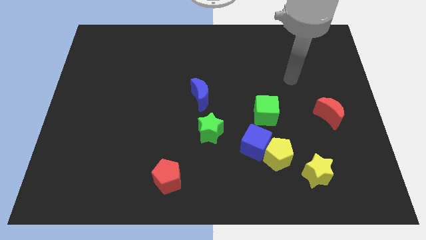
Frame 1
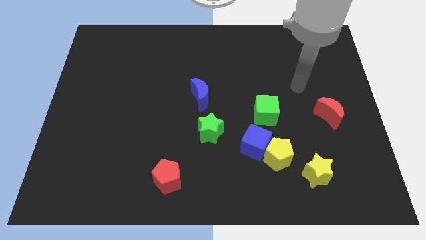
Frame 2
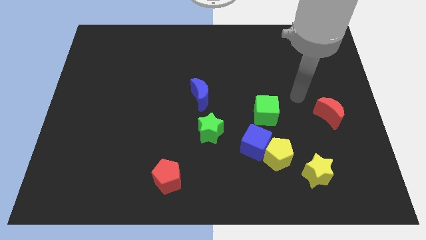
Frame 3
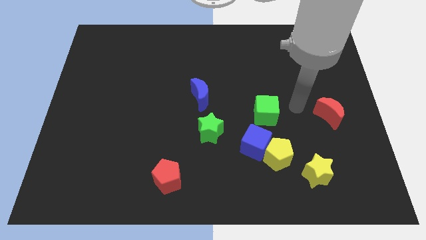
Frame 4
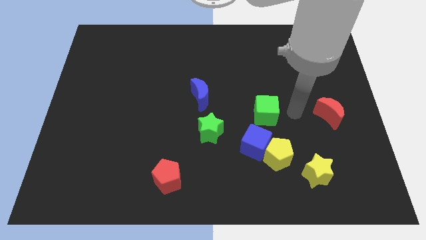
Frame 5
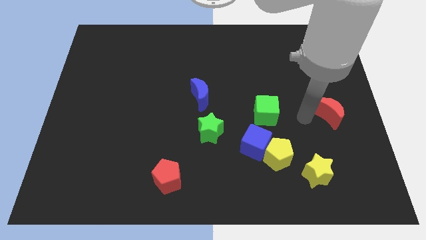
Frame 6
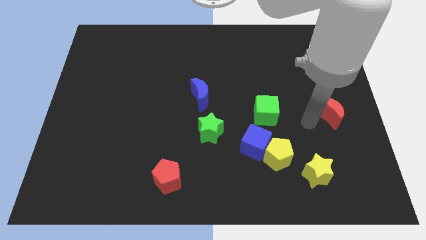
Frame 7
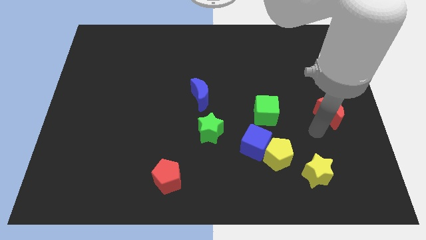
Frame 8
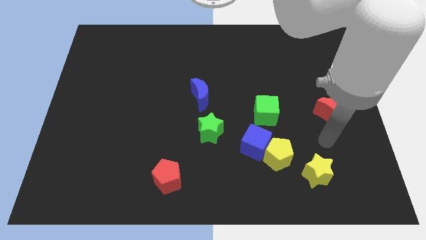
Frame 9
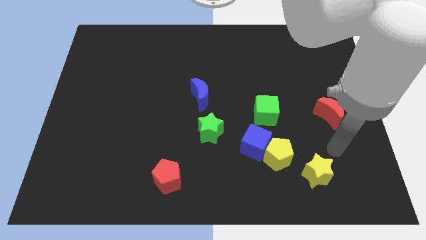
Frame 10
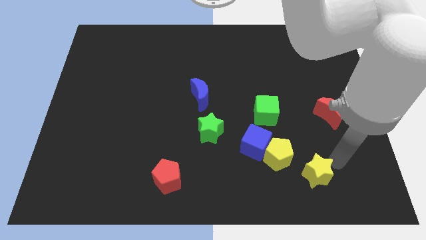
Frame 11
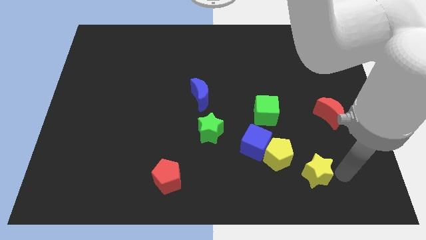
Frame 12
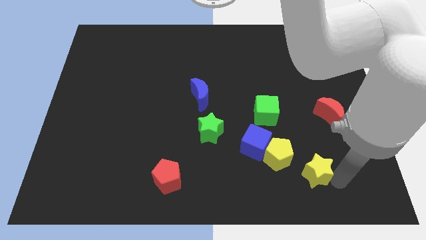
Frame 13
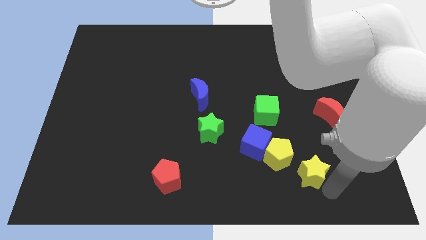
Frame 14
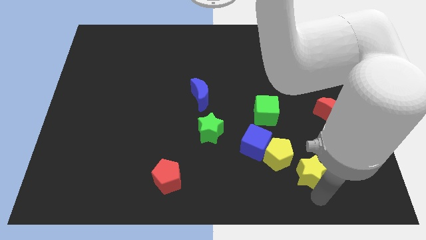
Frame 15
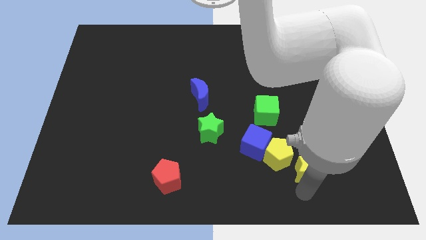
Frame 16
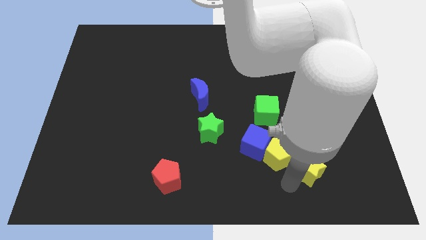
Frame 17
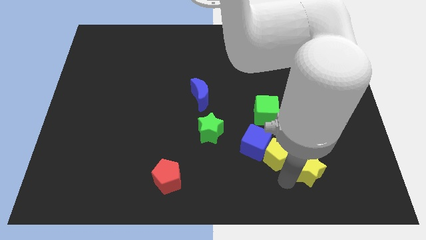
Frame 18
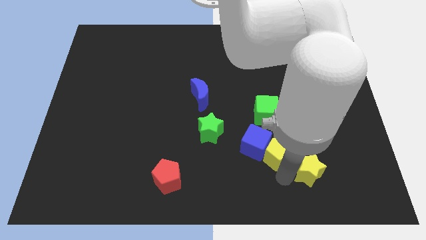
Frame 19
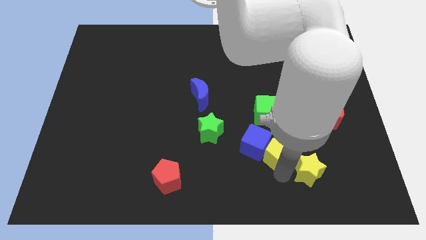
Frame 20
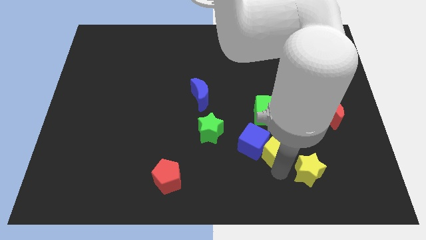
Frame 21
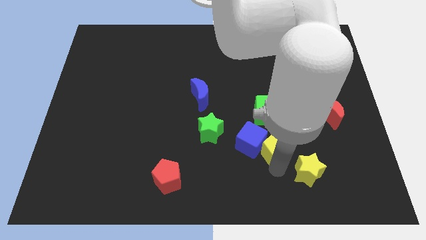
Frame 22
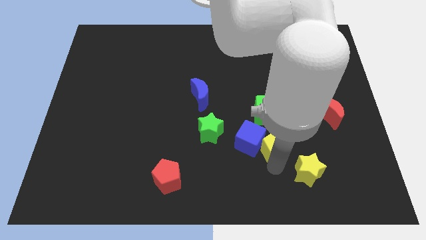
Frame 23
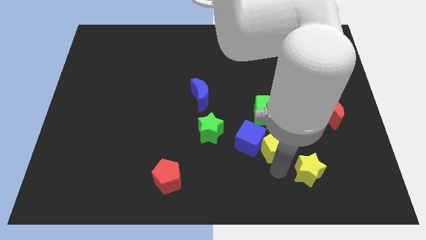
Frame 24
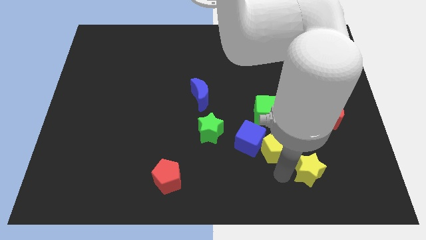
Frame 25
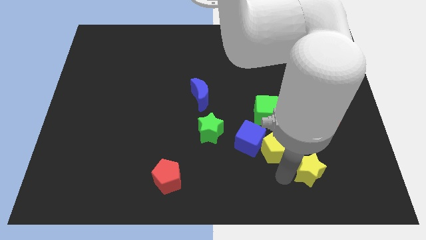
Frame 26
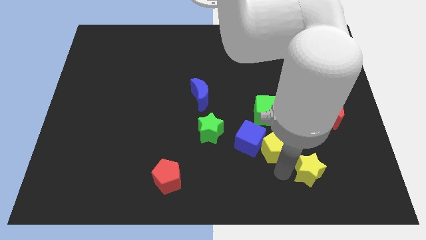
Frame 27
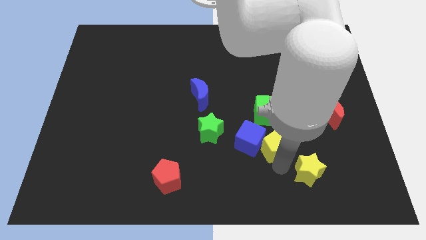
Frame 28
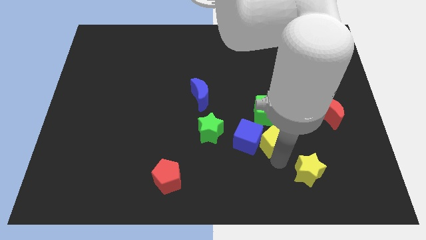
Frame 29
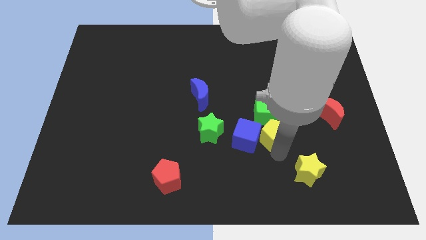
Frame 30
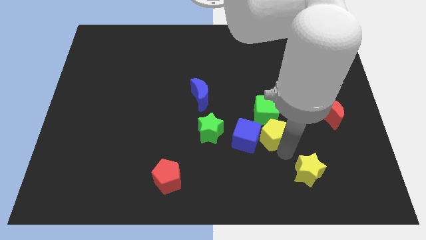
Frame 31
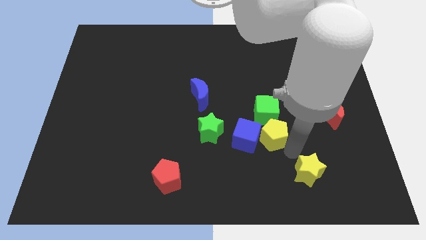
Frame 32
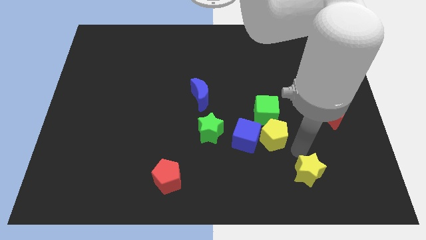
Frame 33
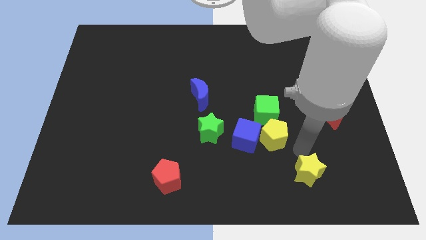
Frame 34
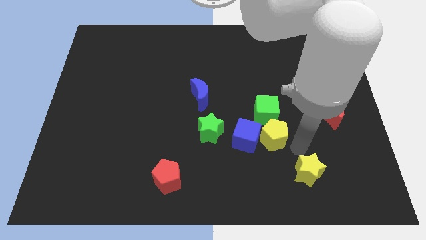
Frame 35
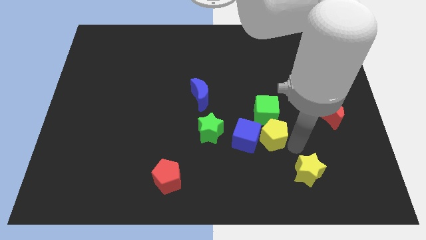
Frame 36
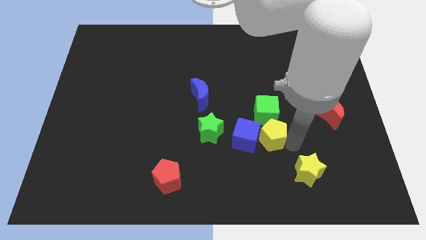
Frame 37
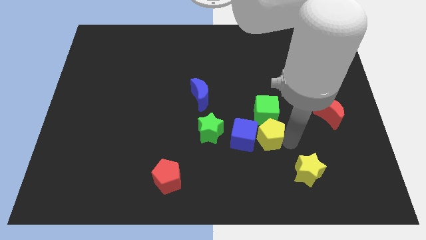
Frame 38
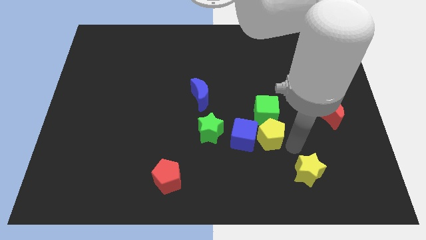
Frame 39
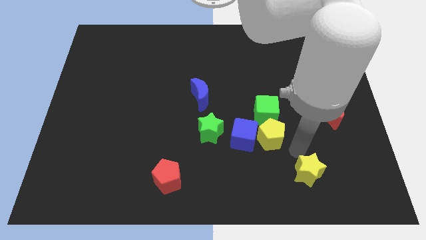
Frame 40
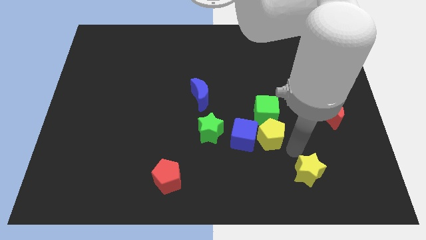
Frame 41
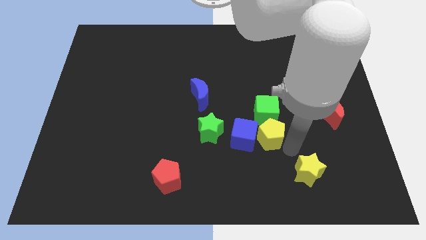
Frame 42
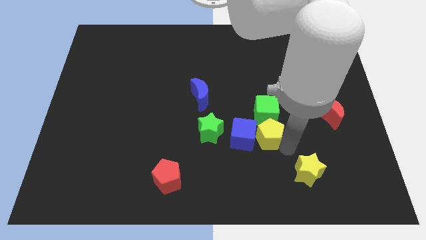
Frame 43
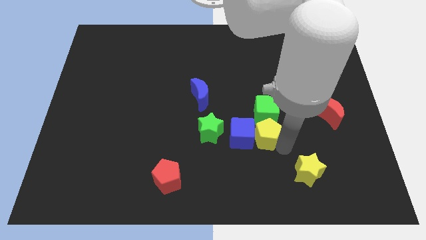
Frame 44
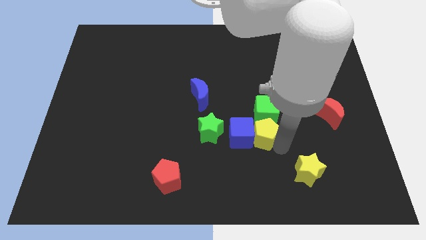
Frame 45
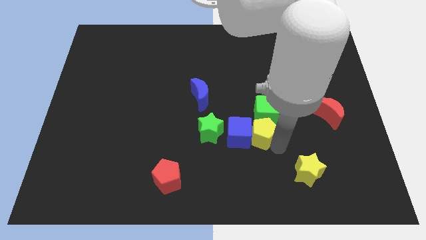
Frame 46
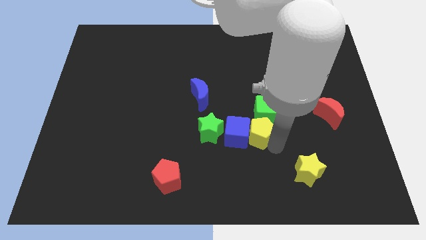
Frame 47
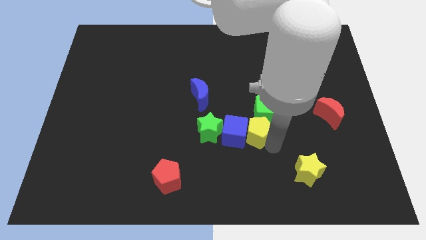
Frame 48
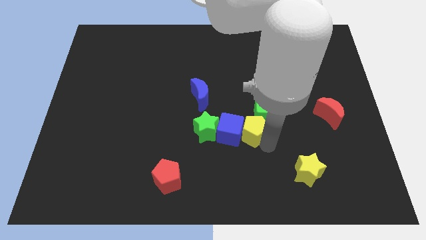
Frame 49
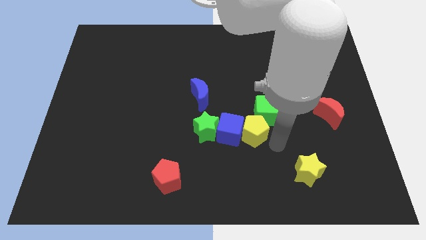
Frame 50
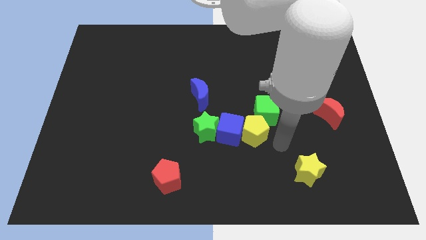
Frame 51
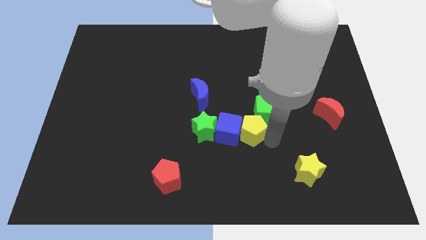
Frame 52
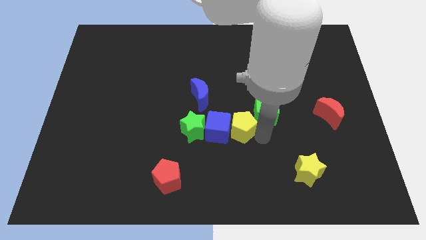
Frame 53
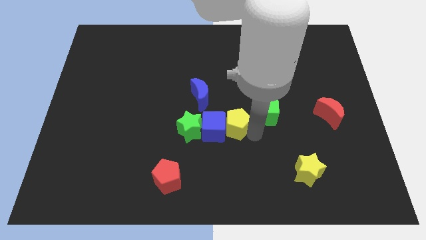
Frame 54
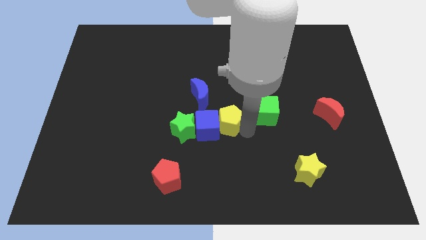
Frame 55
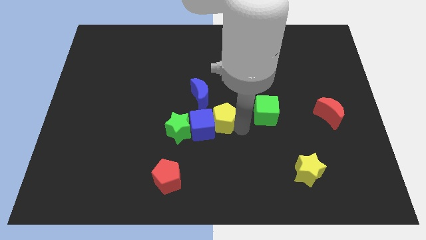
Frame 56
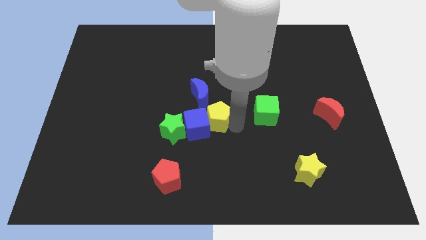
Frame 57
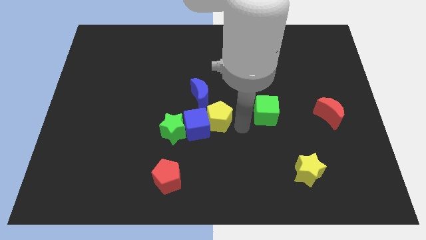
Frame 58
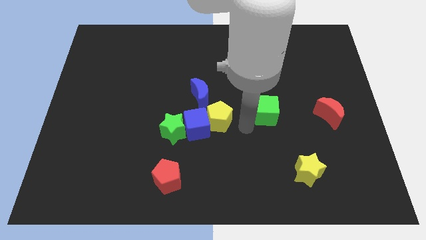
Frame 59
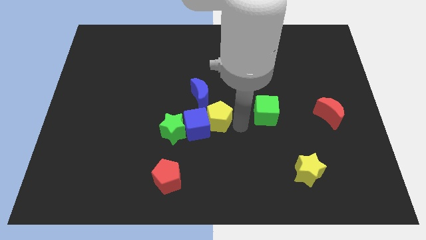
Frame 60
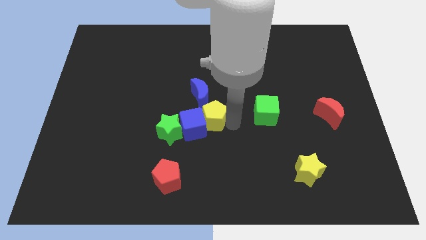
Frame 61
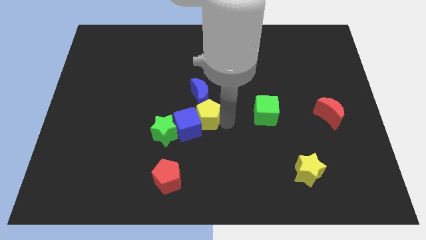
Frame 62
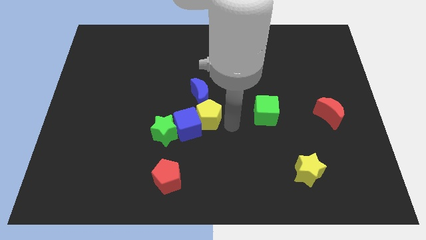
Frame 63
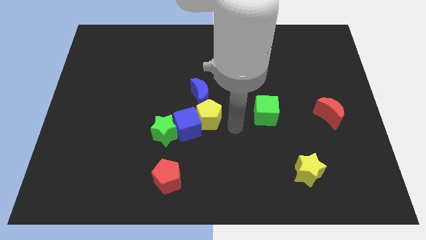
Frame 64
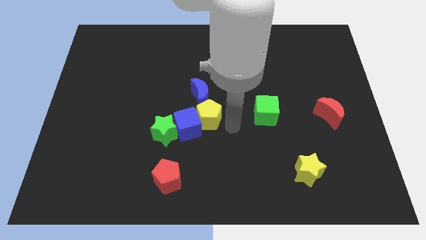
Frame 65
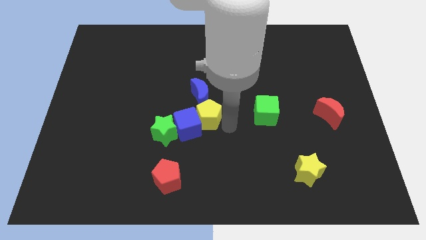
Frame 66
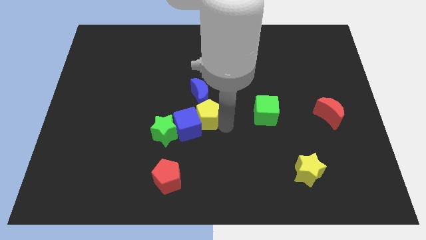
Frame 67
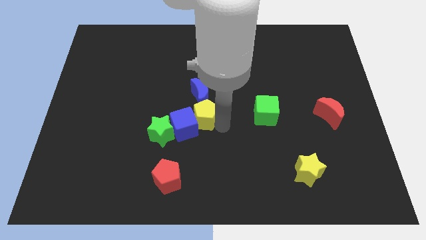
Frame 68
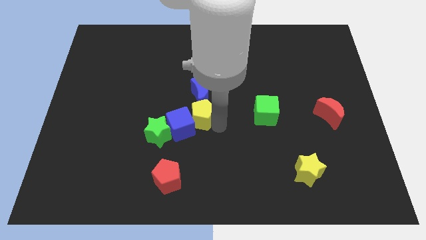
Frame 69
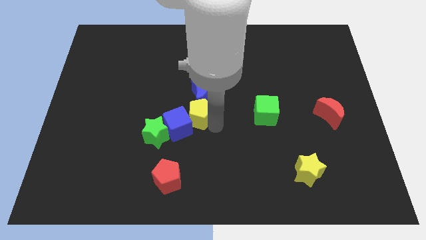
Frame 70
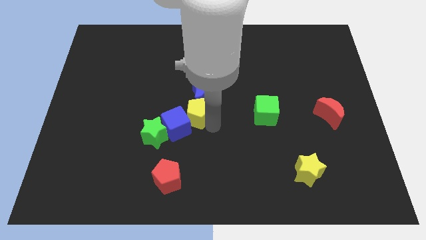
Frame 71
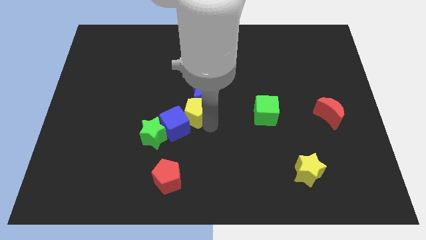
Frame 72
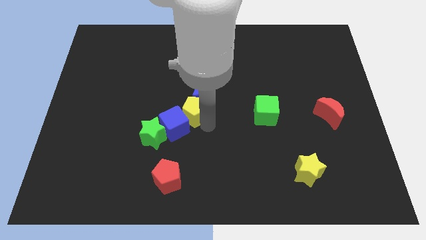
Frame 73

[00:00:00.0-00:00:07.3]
move the yellow pentagon diagonally upwards and left

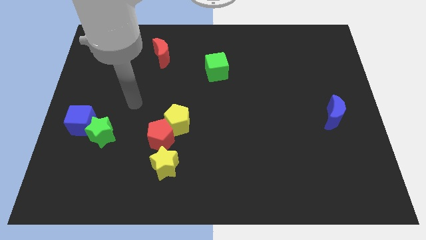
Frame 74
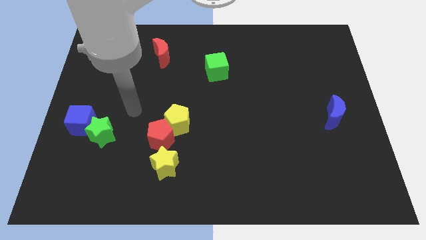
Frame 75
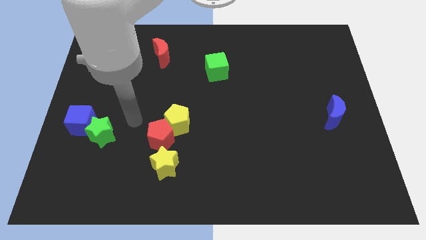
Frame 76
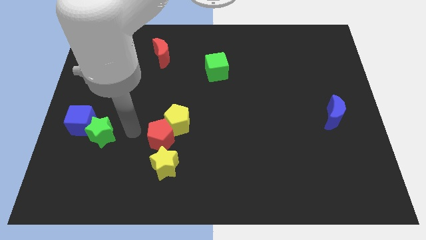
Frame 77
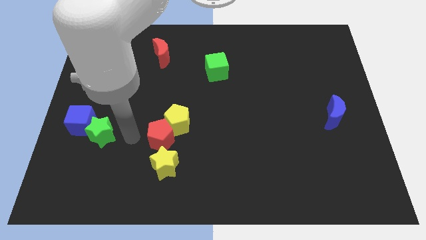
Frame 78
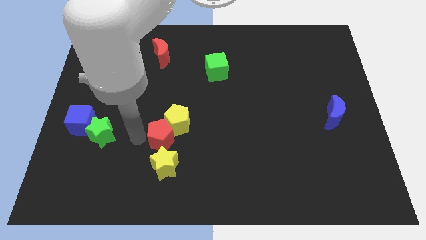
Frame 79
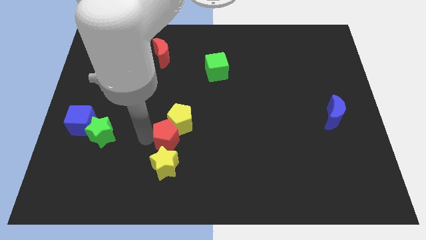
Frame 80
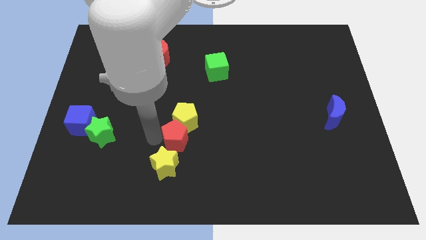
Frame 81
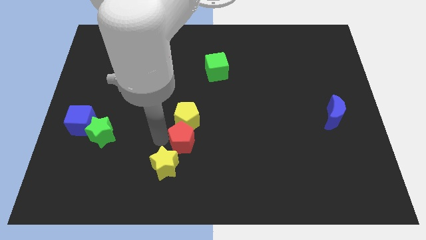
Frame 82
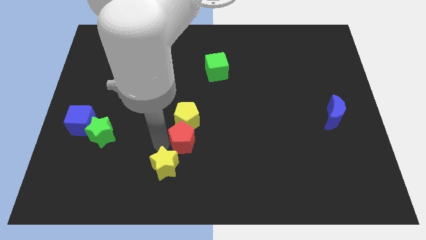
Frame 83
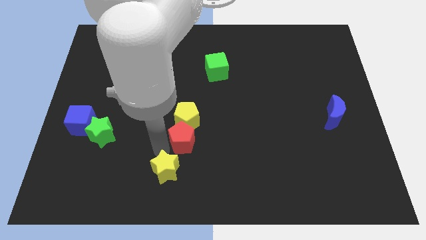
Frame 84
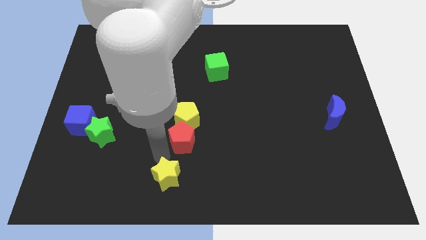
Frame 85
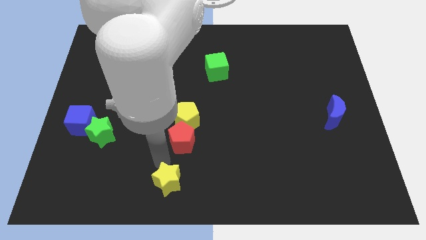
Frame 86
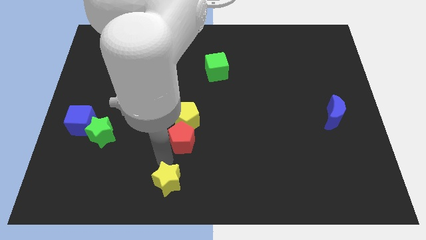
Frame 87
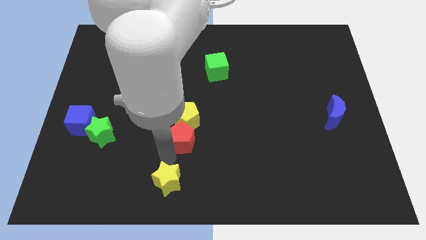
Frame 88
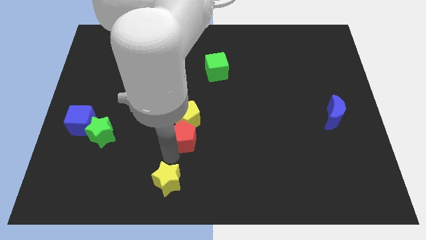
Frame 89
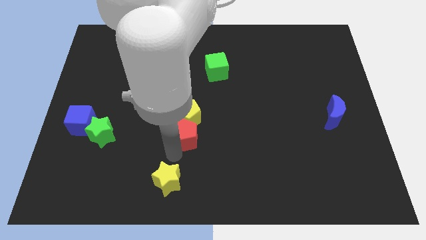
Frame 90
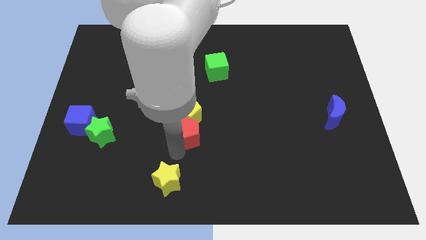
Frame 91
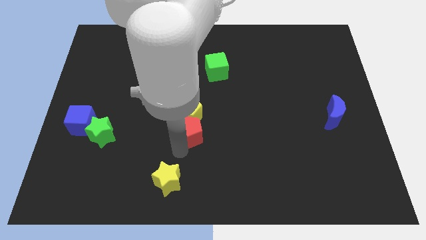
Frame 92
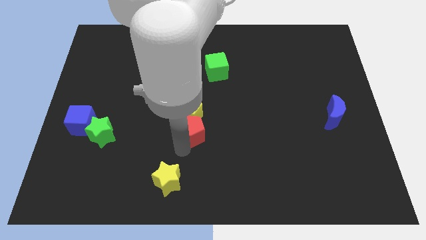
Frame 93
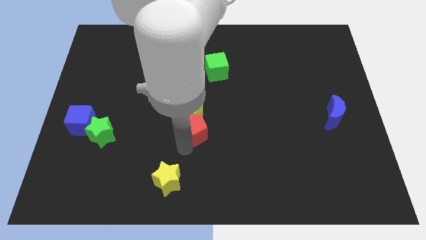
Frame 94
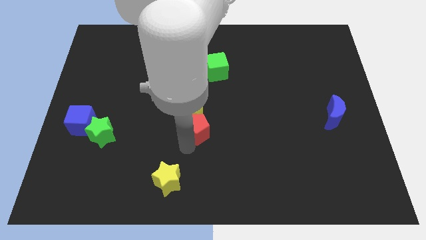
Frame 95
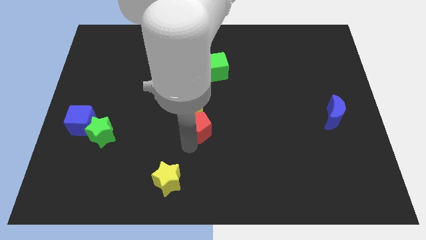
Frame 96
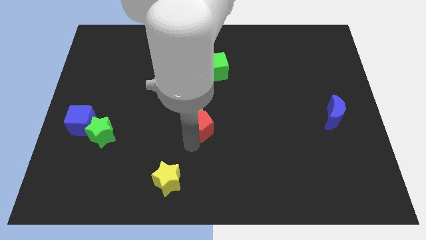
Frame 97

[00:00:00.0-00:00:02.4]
slightly slide the red pentagon upwards and to the right
